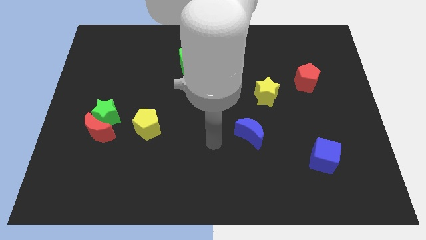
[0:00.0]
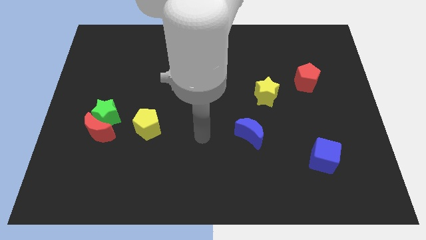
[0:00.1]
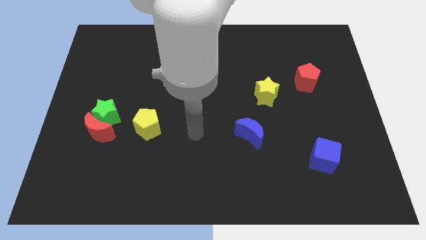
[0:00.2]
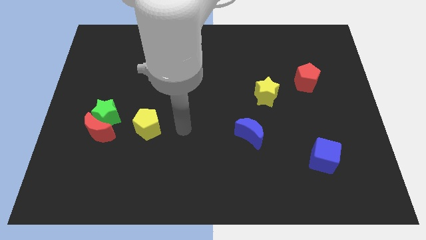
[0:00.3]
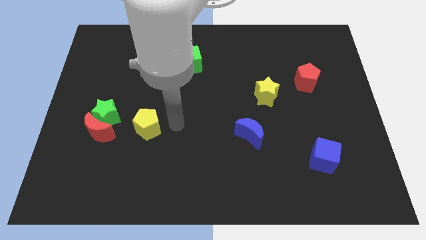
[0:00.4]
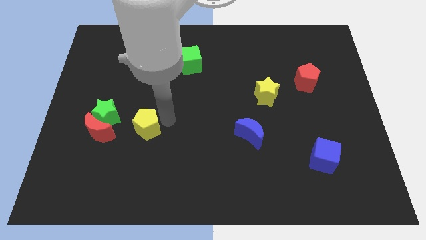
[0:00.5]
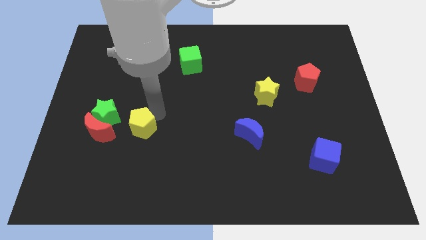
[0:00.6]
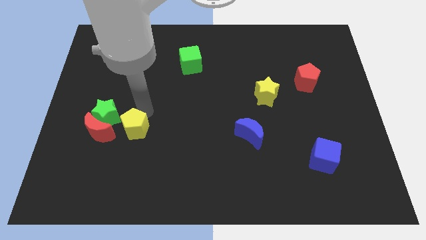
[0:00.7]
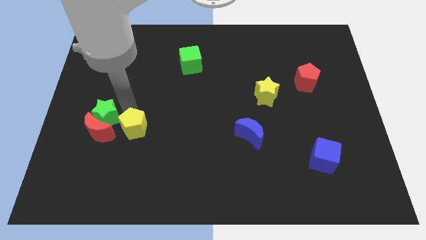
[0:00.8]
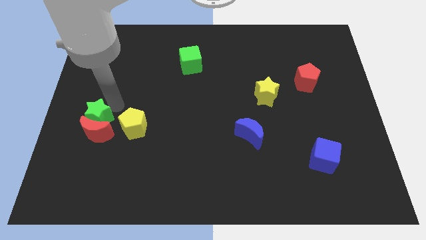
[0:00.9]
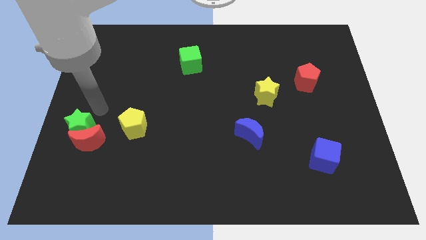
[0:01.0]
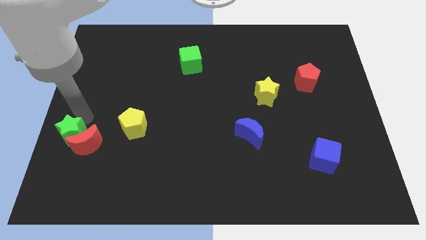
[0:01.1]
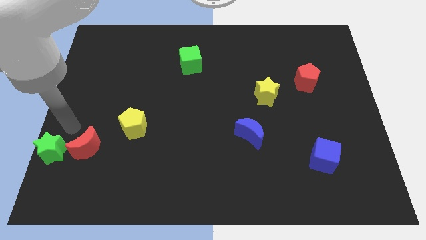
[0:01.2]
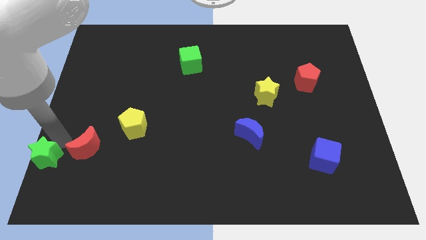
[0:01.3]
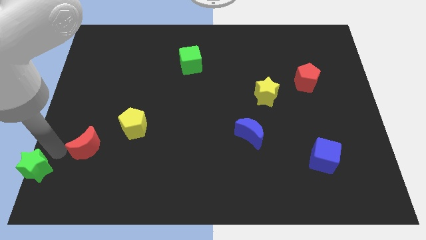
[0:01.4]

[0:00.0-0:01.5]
pull the red moon apart from the green star

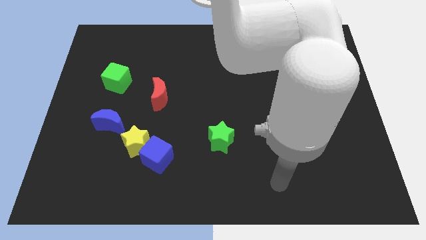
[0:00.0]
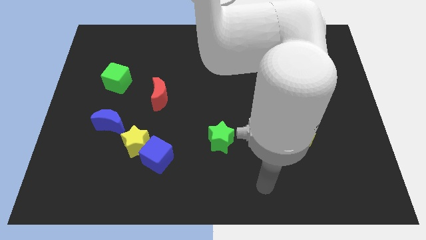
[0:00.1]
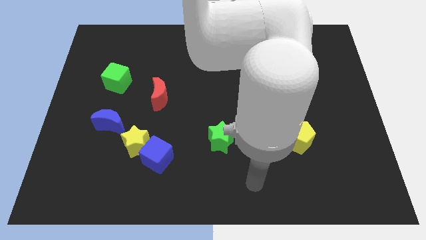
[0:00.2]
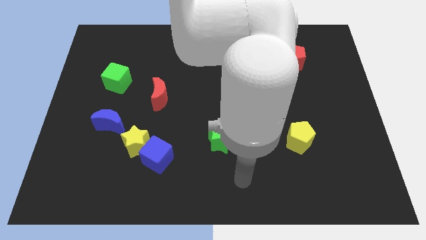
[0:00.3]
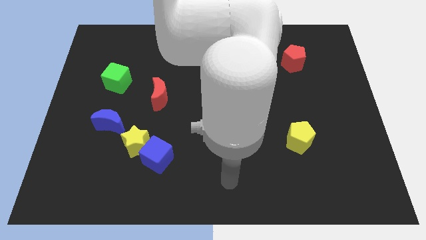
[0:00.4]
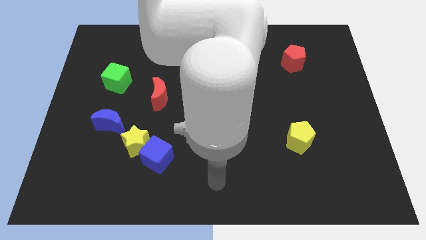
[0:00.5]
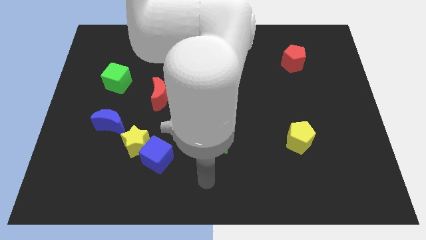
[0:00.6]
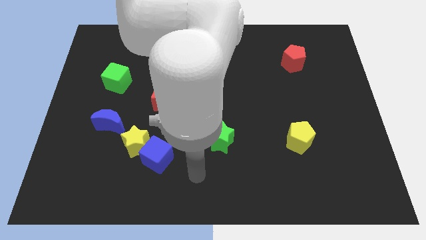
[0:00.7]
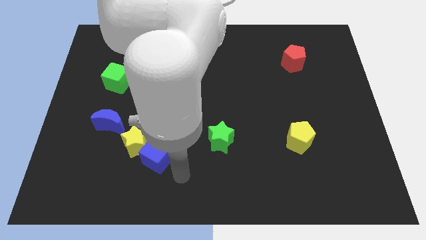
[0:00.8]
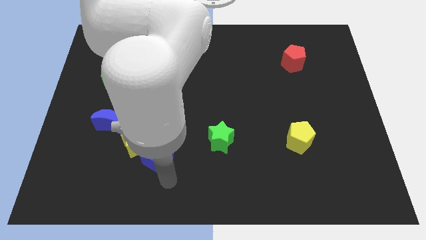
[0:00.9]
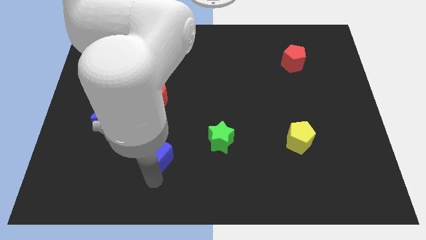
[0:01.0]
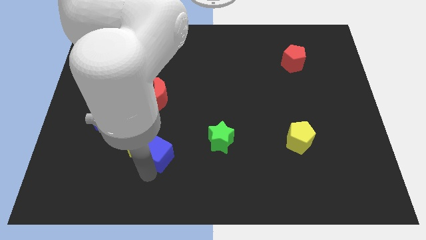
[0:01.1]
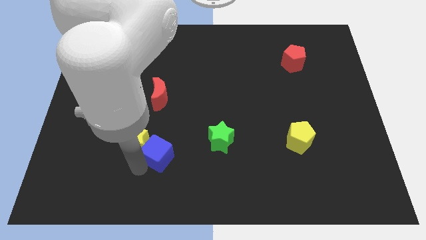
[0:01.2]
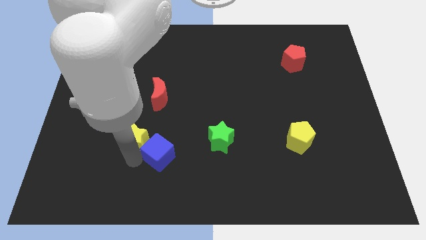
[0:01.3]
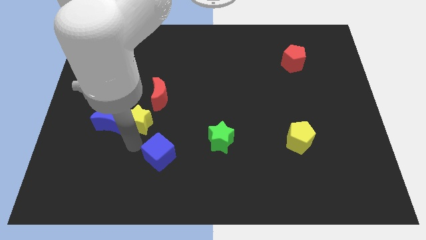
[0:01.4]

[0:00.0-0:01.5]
separate the blue cube from the yellow star

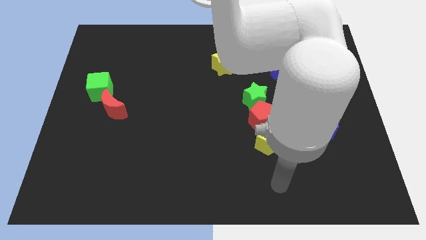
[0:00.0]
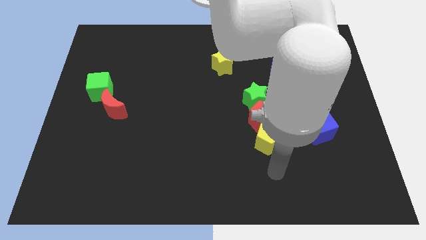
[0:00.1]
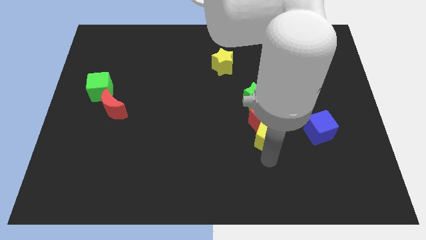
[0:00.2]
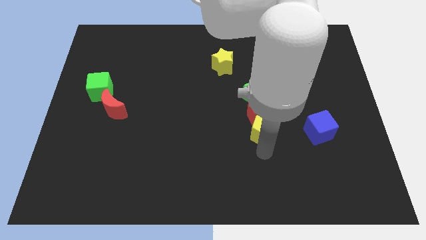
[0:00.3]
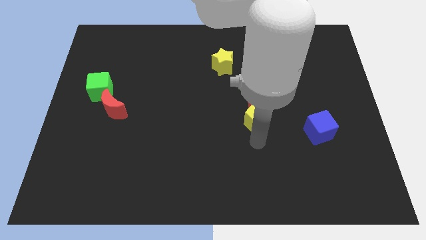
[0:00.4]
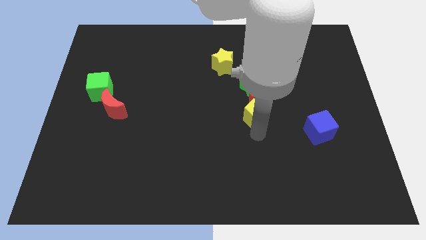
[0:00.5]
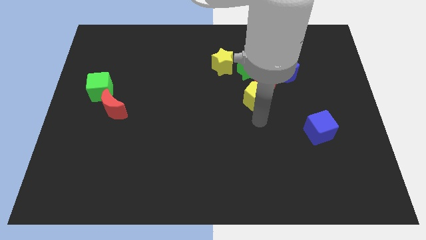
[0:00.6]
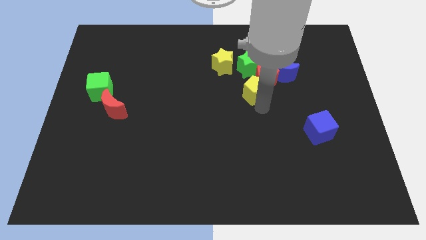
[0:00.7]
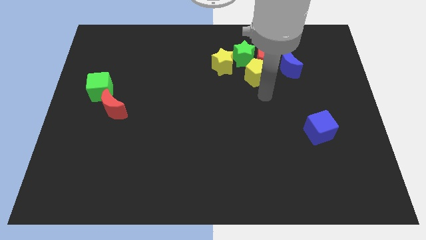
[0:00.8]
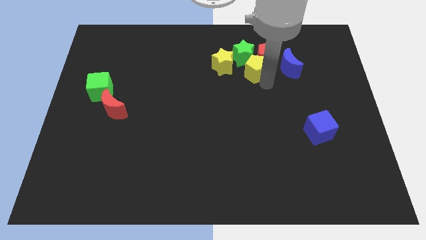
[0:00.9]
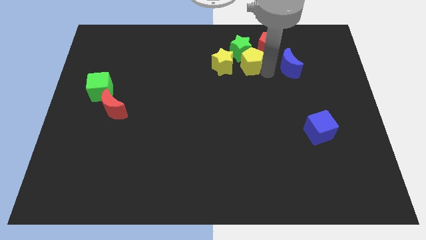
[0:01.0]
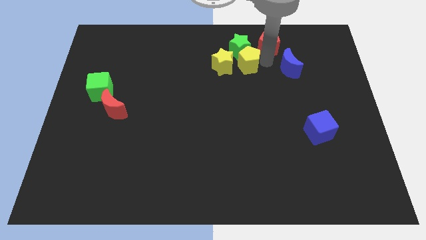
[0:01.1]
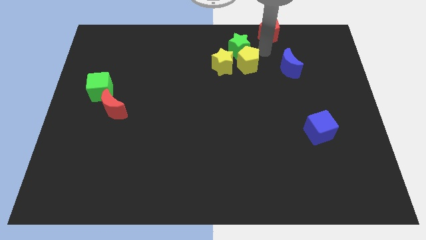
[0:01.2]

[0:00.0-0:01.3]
separate the green star from the red pentagon

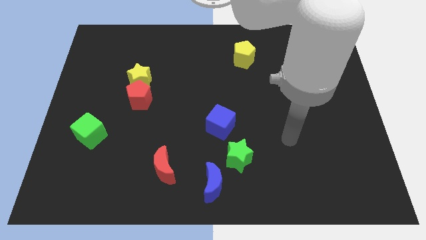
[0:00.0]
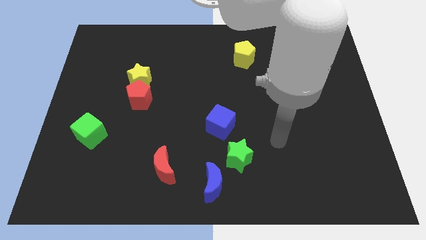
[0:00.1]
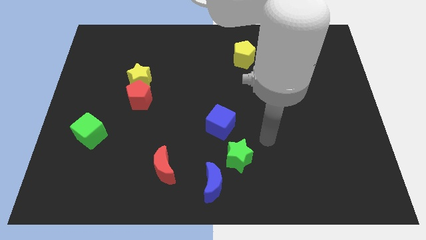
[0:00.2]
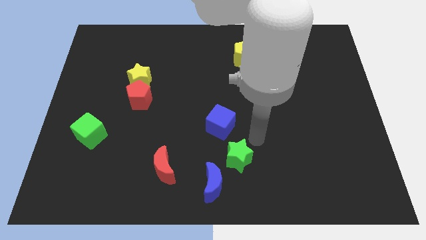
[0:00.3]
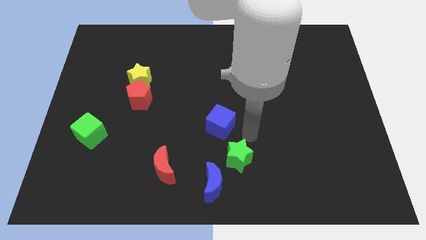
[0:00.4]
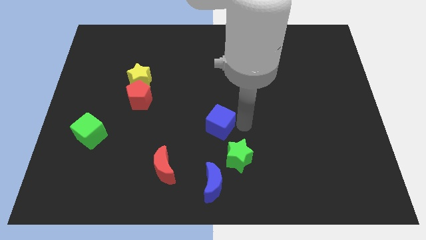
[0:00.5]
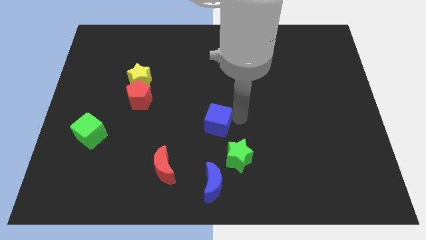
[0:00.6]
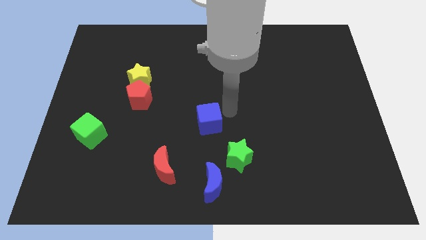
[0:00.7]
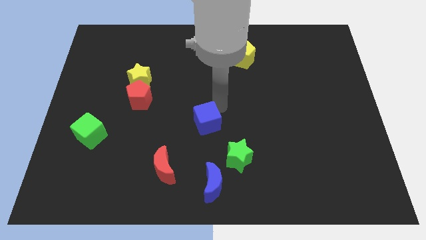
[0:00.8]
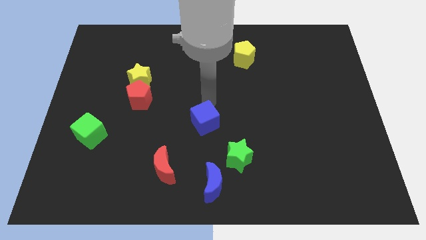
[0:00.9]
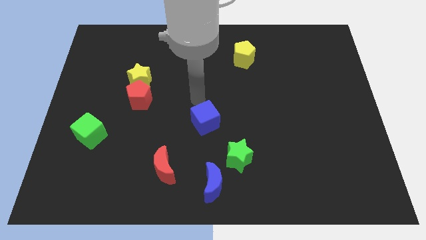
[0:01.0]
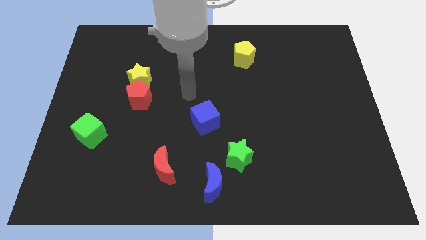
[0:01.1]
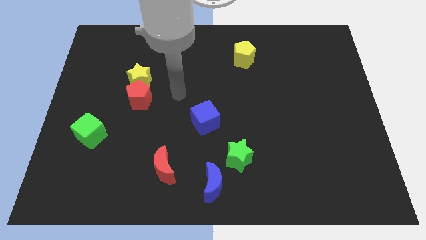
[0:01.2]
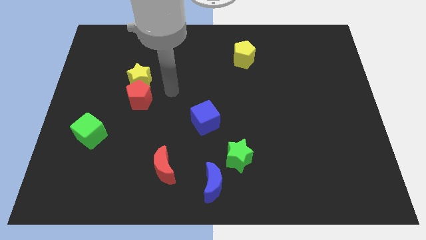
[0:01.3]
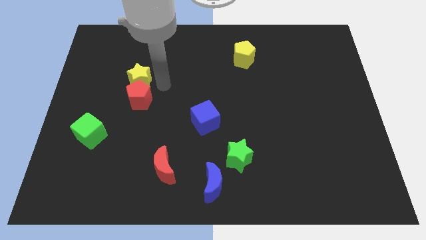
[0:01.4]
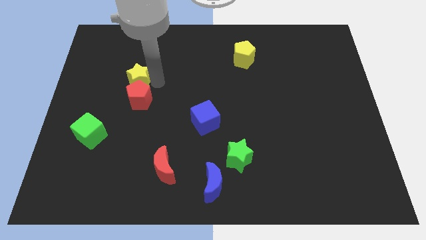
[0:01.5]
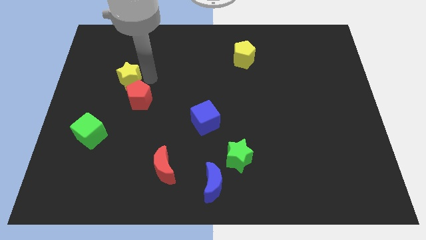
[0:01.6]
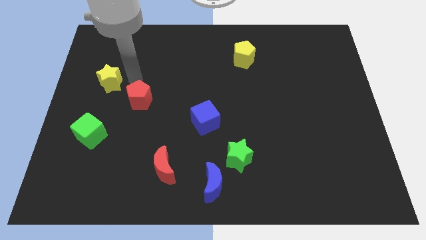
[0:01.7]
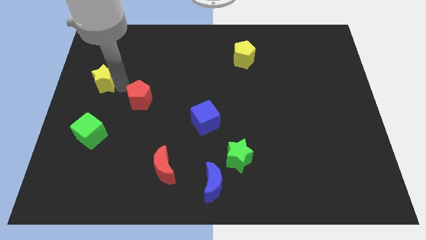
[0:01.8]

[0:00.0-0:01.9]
move the red pentagon away from the yellow star

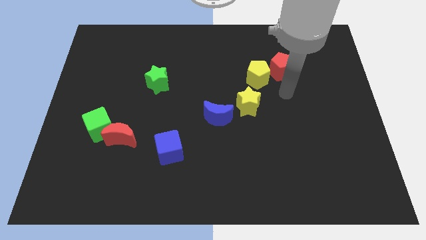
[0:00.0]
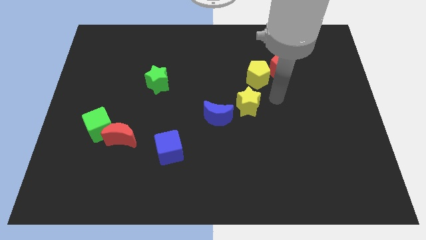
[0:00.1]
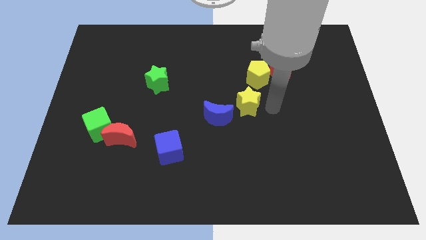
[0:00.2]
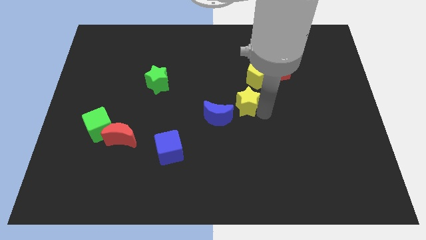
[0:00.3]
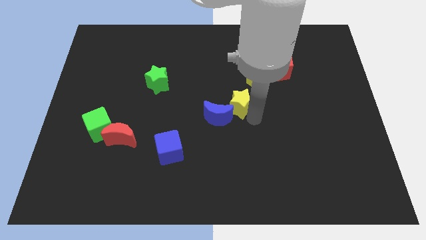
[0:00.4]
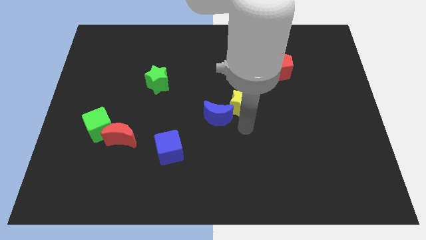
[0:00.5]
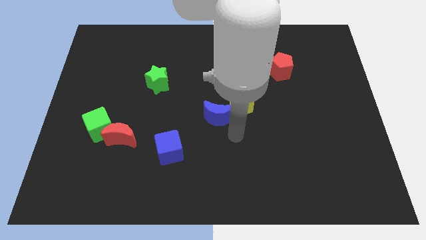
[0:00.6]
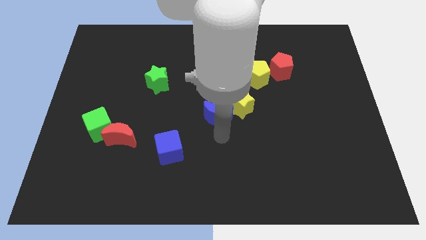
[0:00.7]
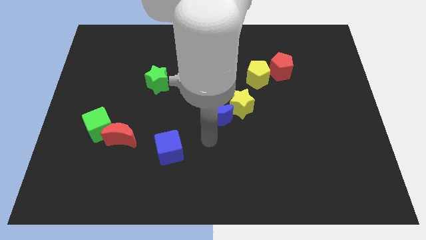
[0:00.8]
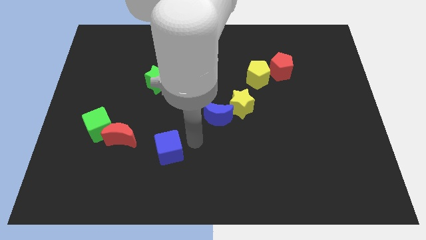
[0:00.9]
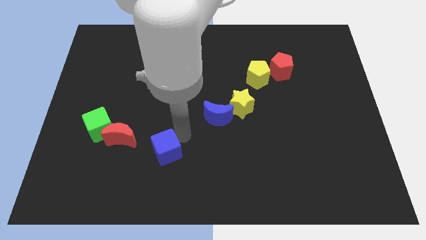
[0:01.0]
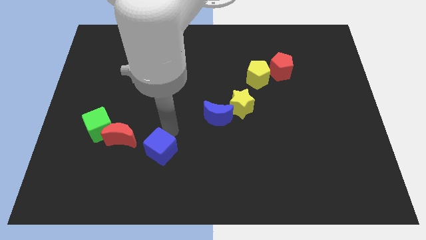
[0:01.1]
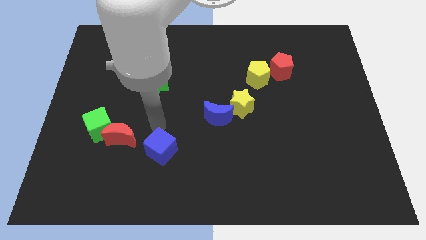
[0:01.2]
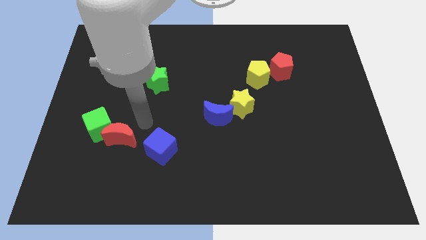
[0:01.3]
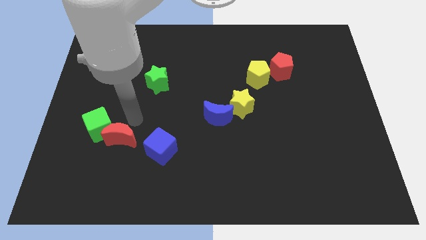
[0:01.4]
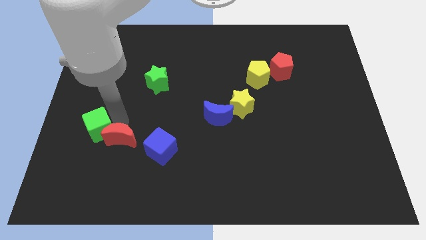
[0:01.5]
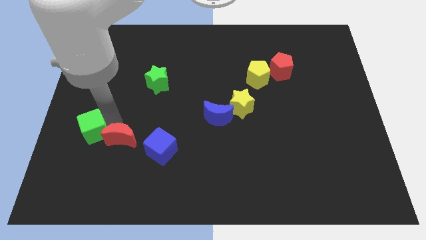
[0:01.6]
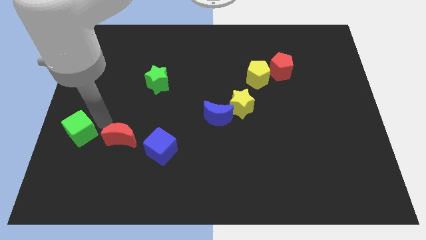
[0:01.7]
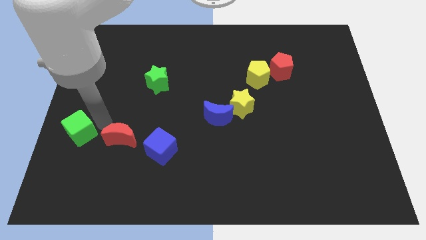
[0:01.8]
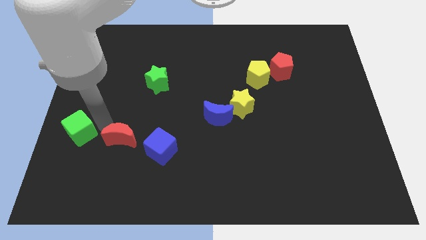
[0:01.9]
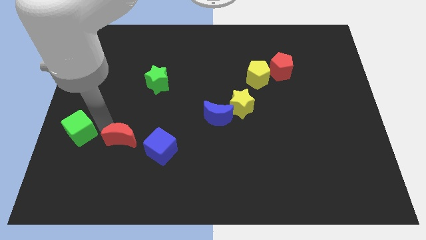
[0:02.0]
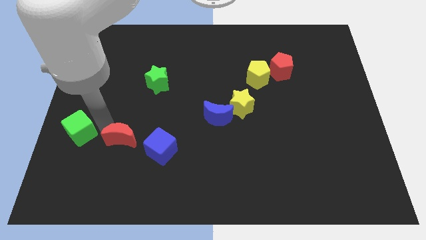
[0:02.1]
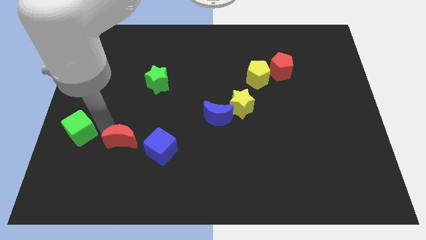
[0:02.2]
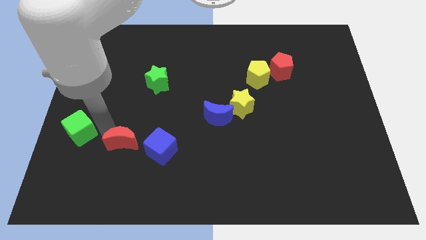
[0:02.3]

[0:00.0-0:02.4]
pull the red moon apart from the green cube

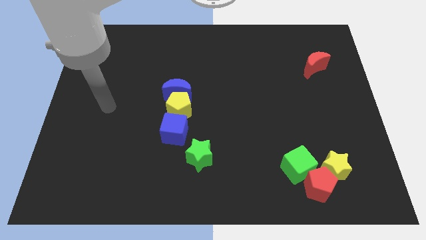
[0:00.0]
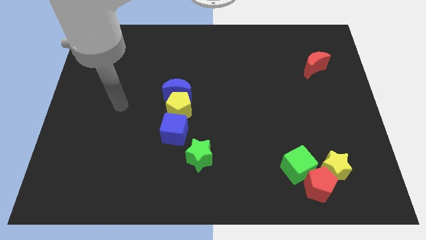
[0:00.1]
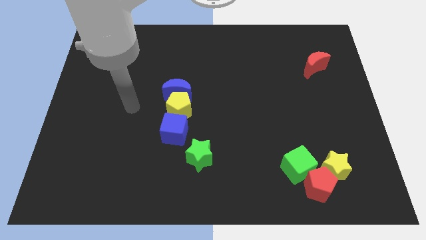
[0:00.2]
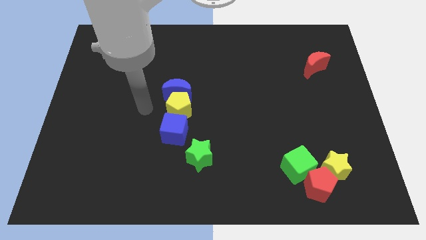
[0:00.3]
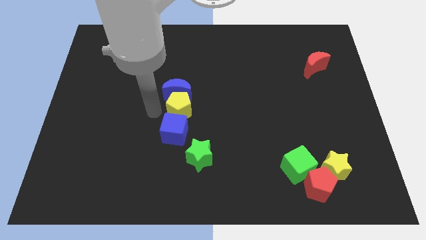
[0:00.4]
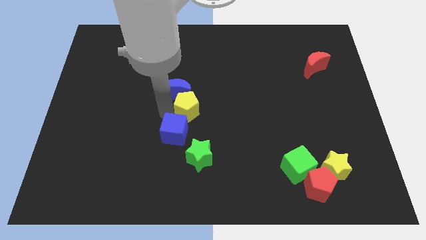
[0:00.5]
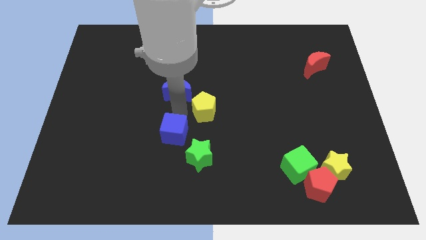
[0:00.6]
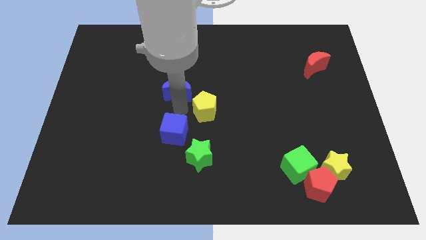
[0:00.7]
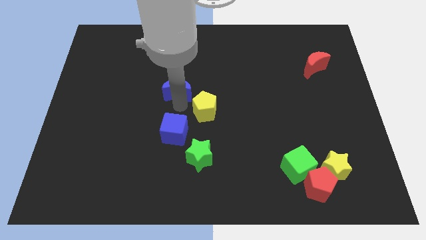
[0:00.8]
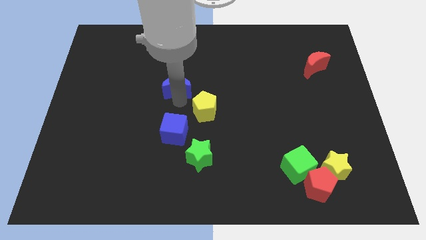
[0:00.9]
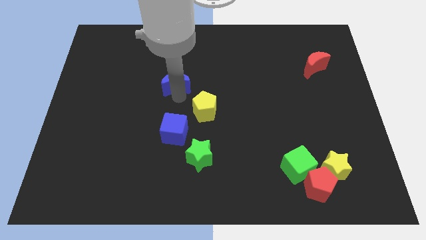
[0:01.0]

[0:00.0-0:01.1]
move the blue moon away from the yellow pentagon
